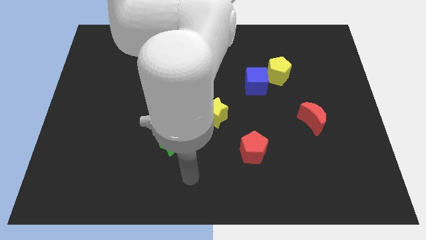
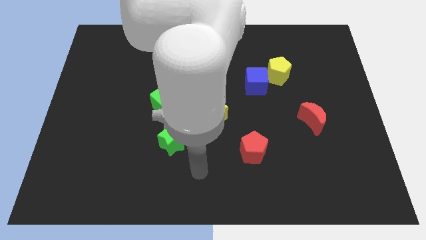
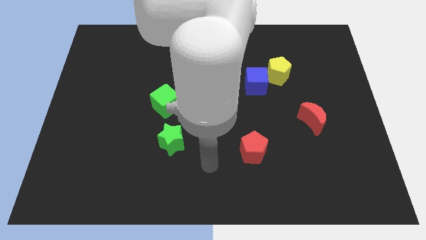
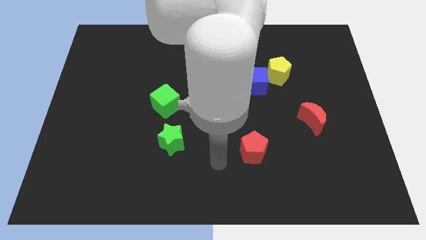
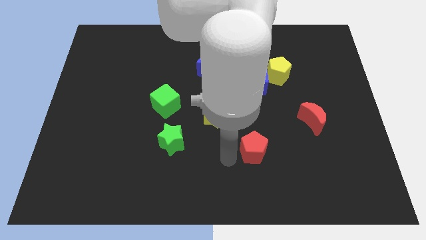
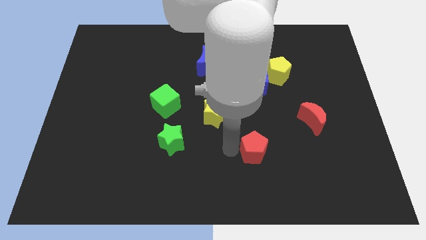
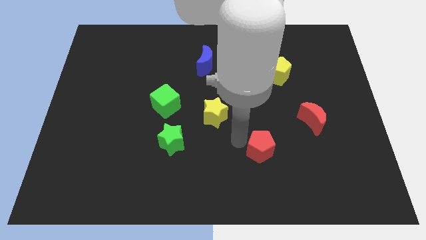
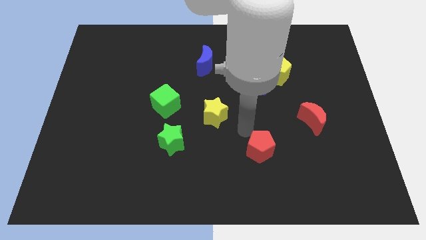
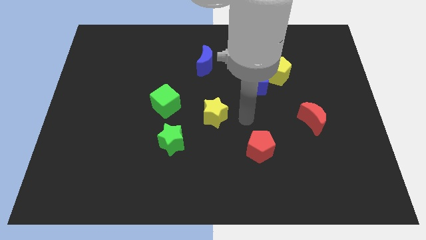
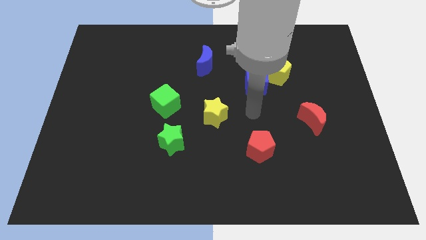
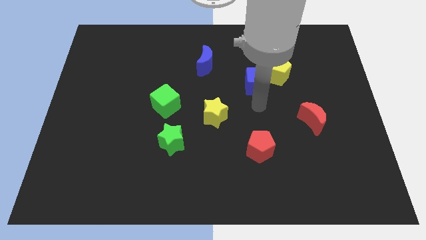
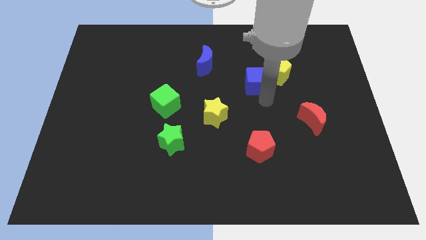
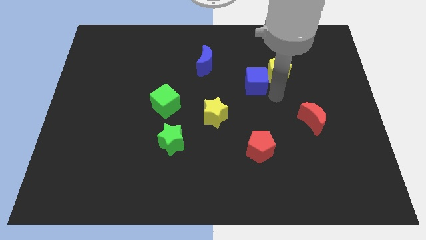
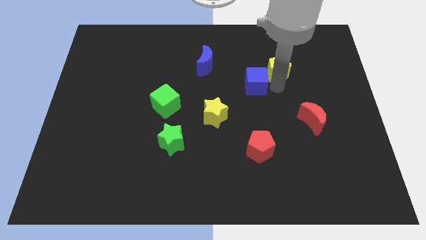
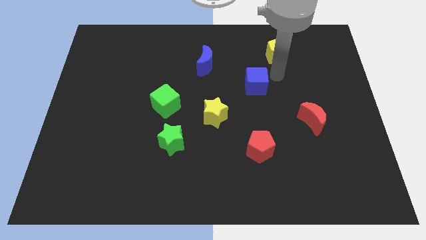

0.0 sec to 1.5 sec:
pull the blue cube apart from the yellow pentagon

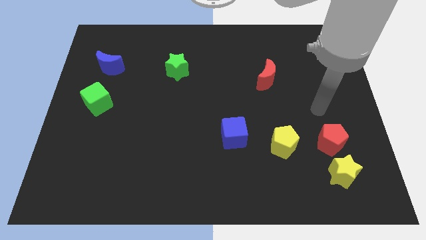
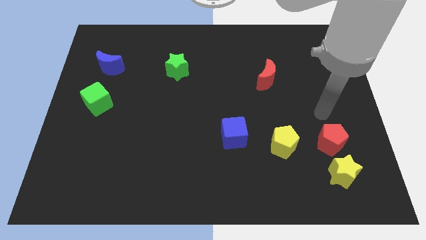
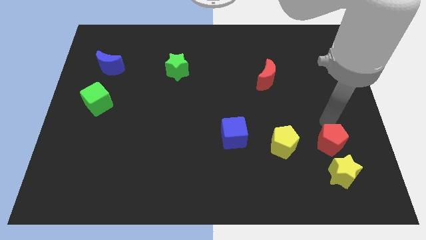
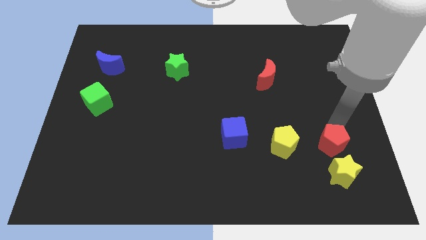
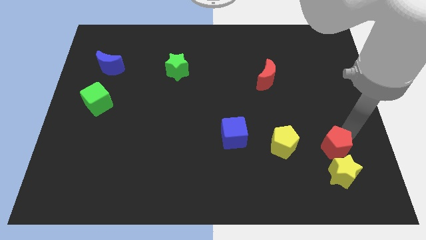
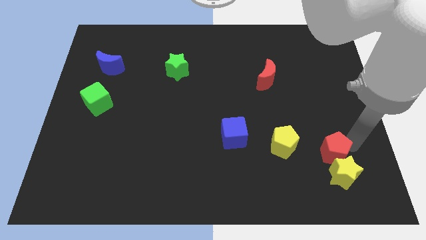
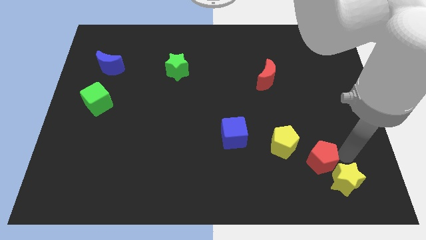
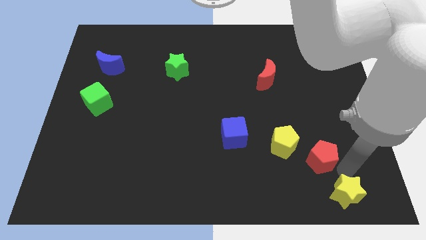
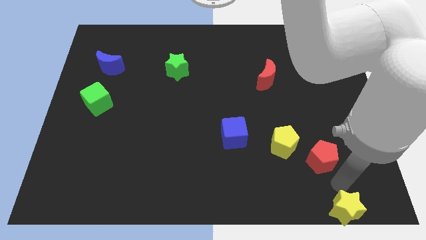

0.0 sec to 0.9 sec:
pull the red pentagon apart from the yellow star

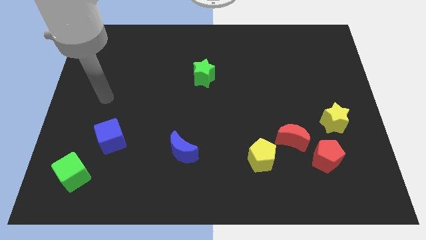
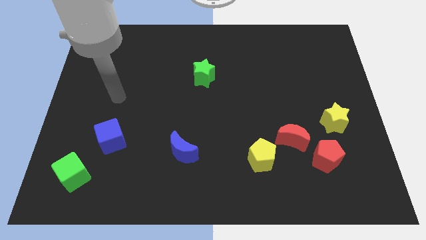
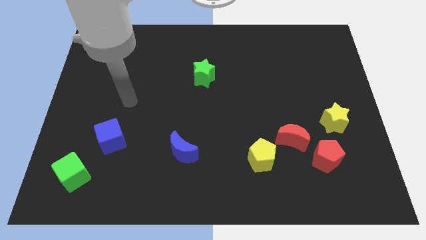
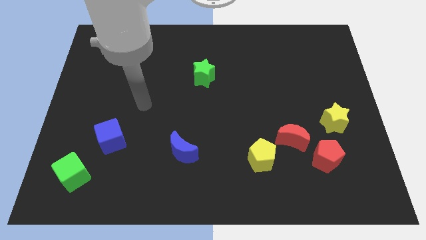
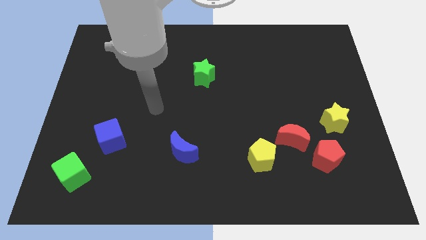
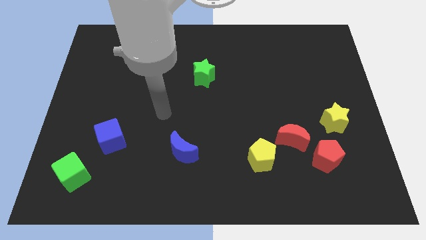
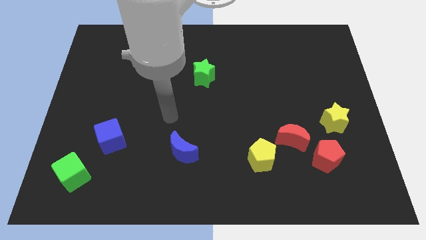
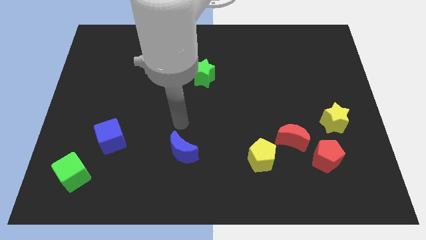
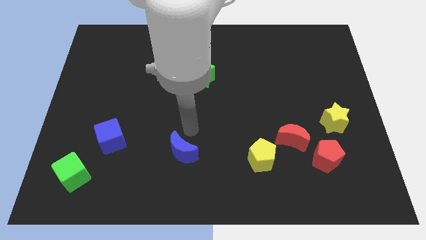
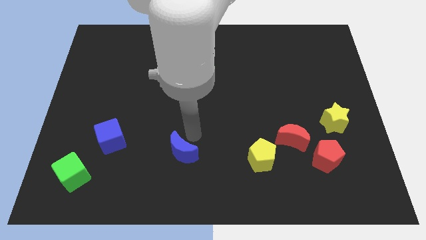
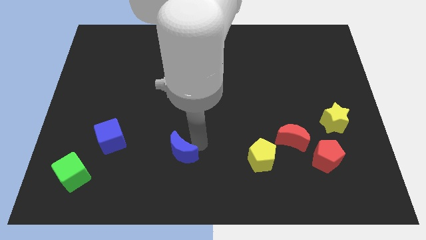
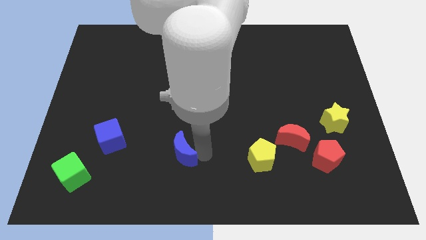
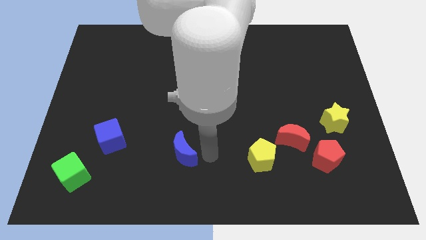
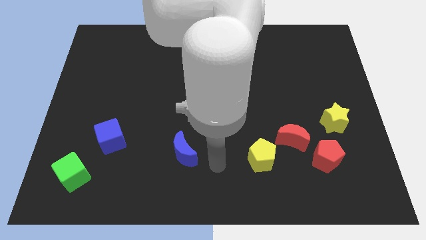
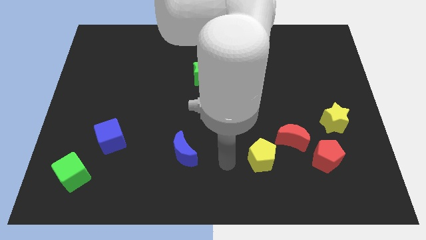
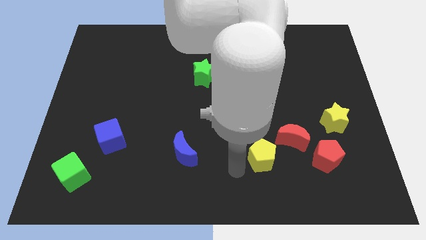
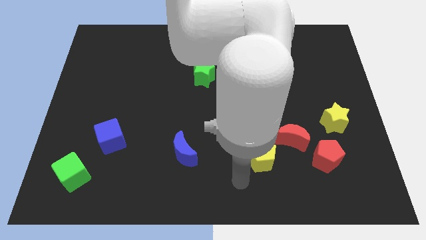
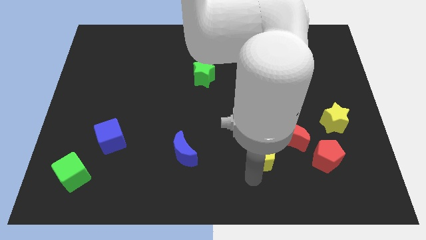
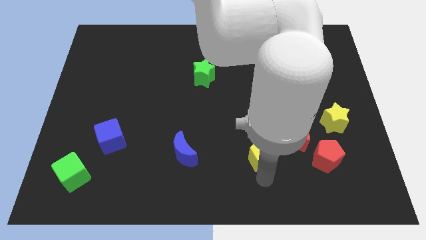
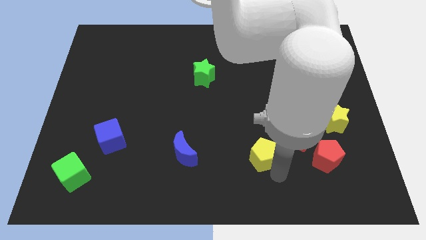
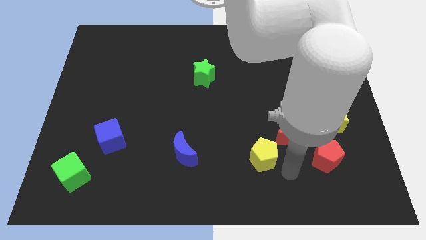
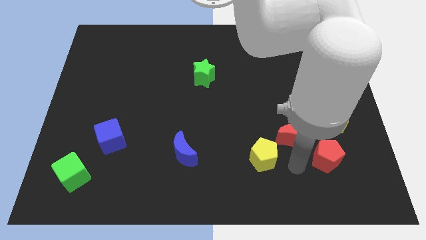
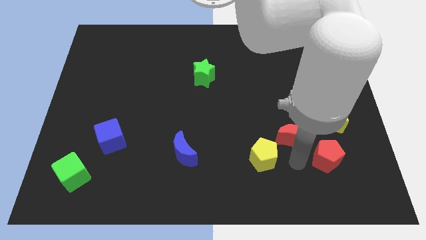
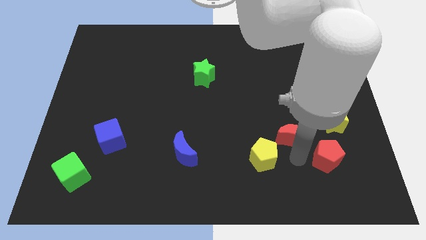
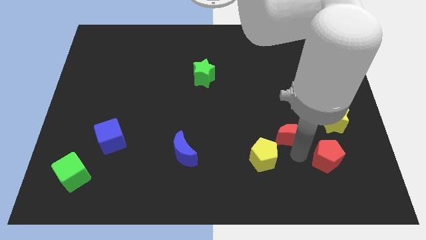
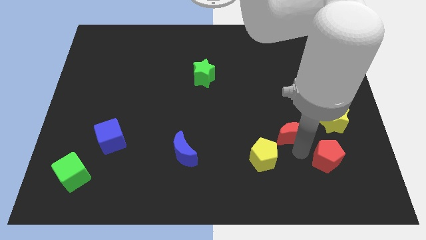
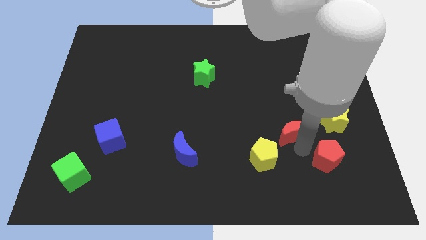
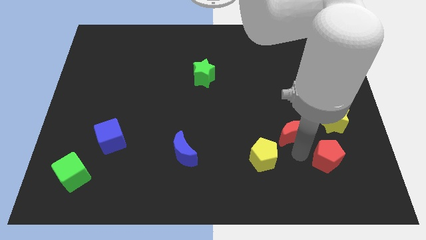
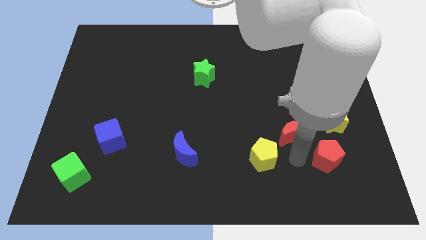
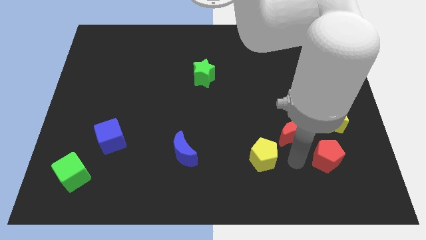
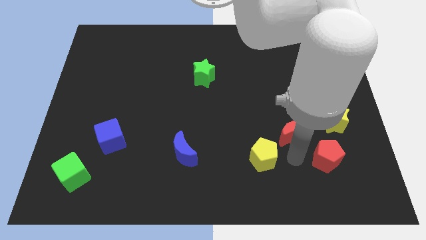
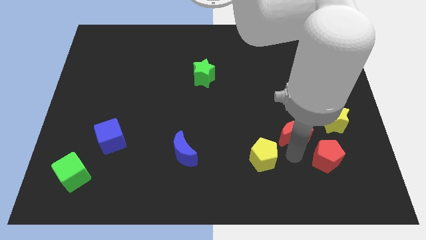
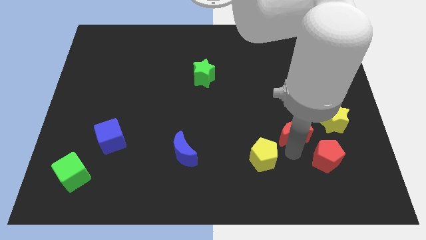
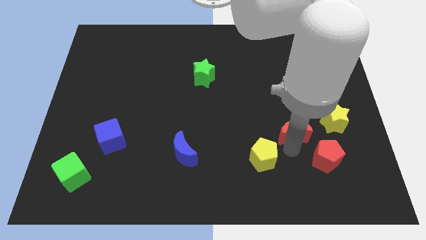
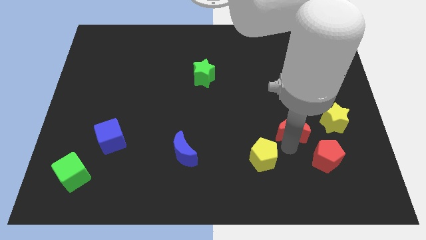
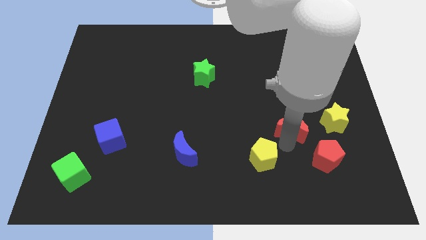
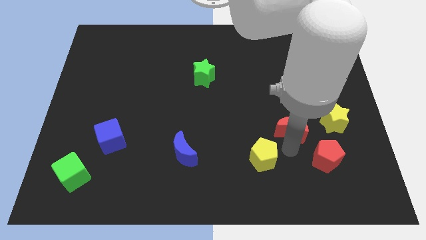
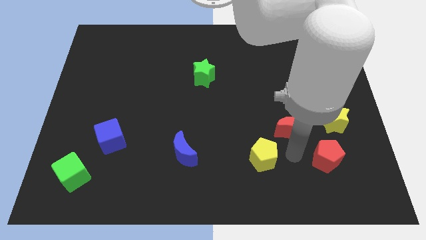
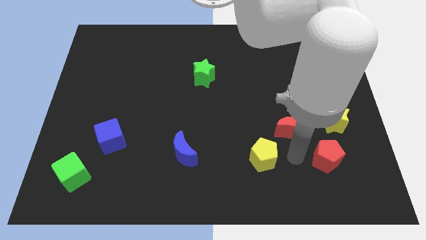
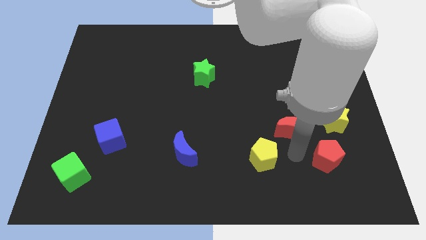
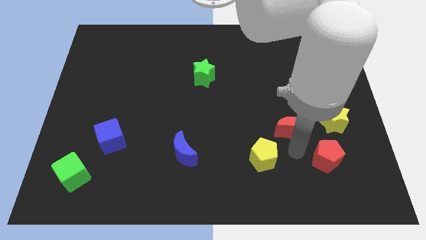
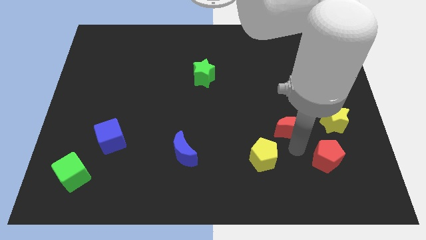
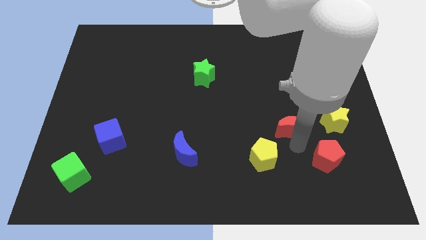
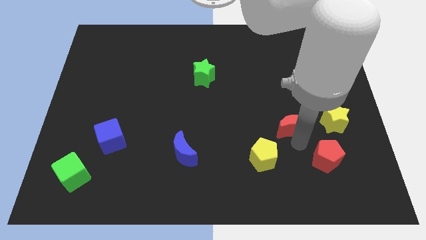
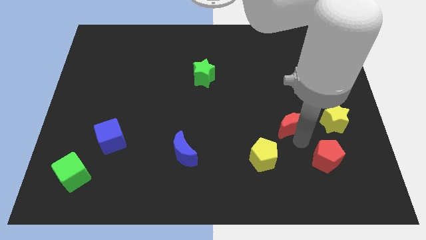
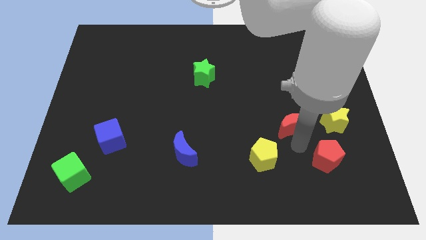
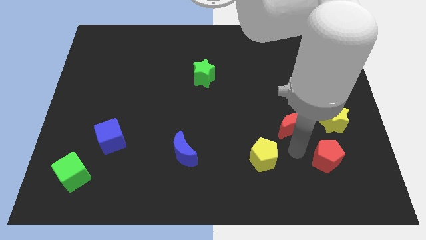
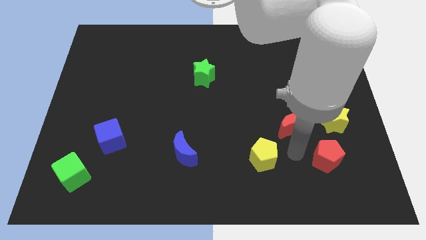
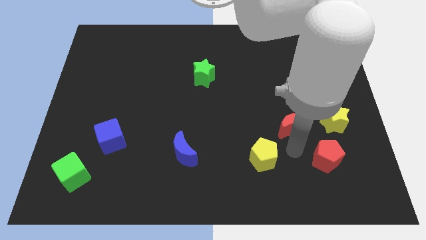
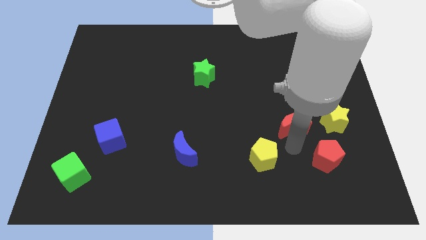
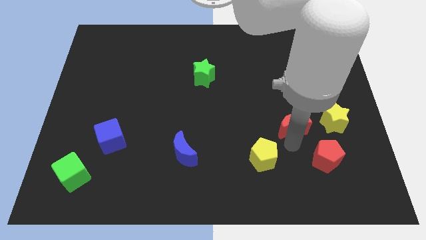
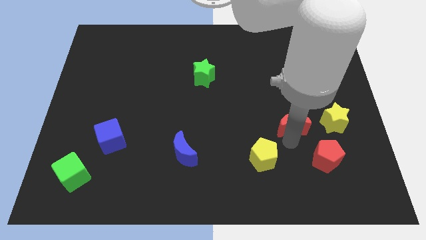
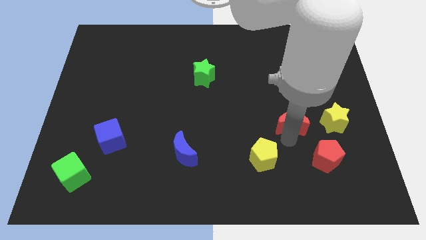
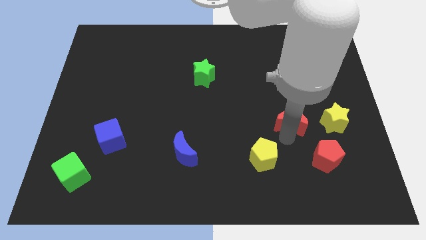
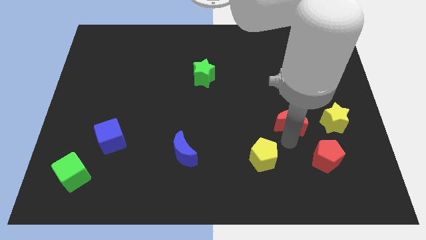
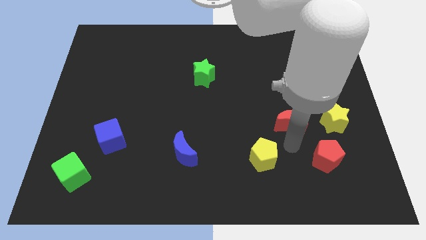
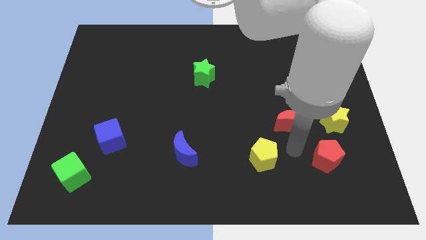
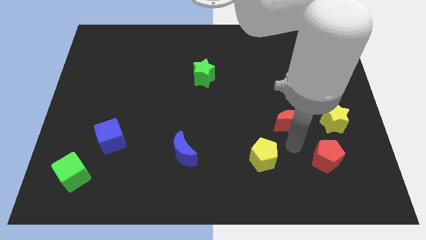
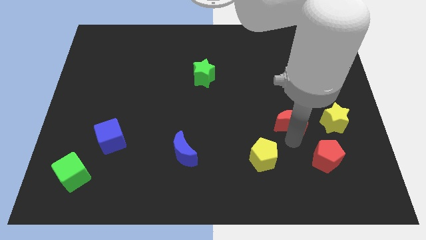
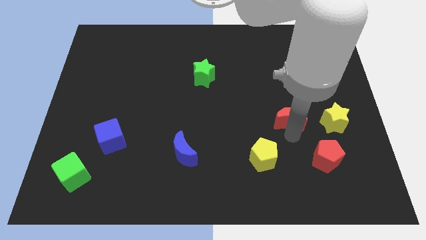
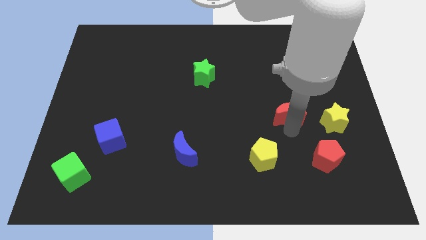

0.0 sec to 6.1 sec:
separate the red moon from the red pentagon and yellow pentagon

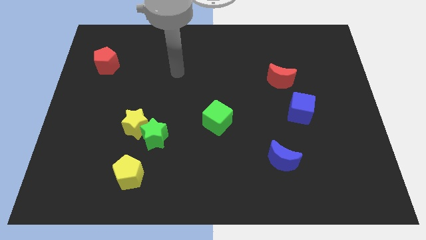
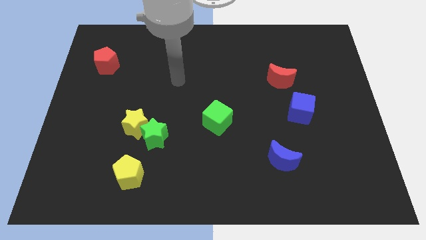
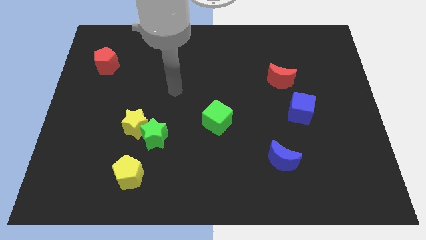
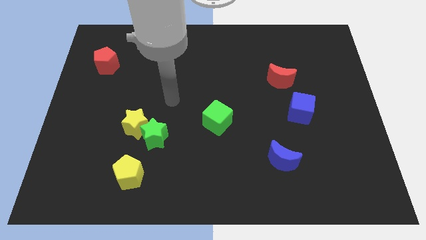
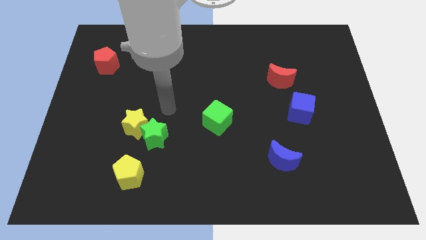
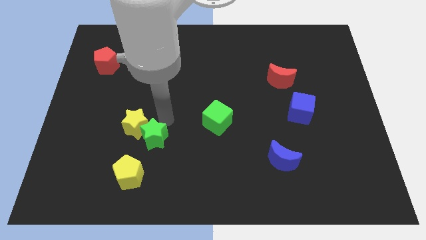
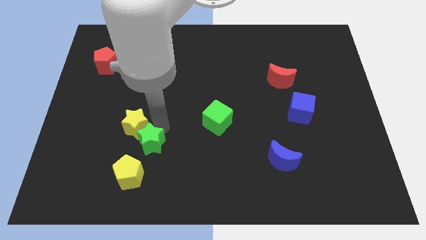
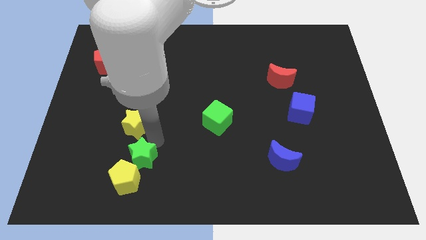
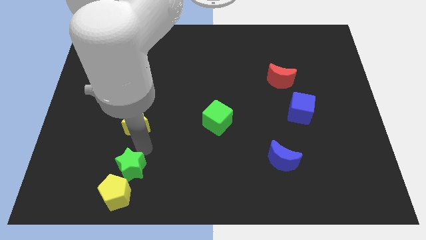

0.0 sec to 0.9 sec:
move the yellow star away from the green star
